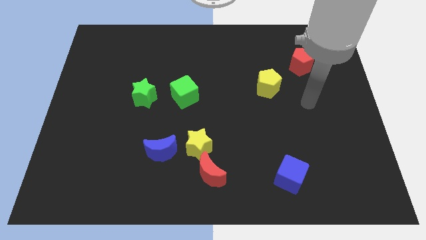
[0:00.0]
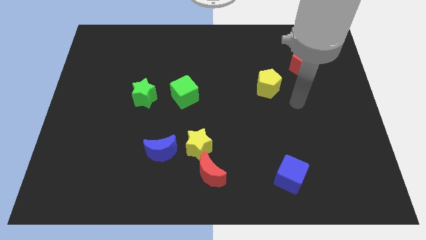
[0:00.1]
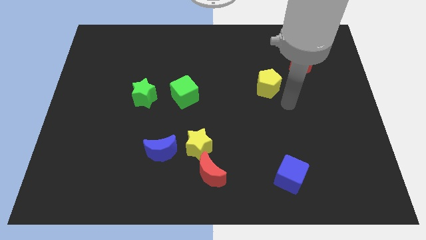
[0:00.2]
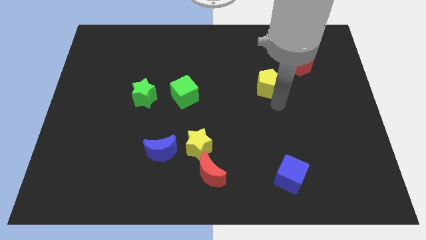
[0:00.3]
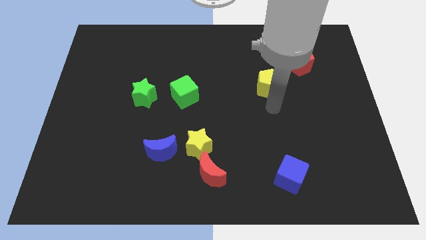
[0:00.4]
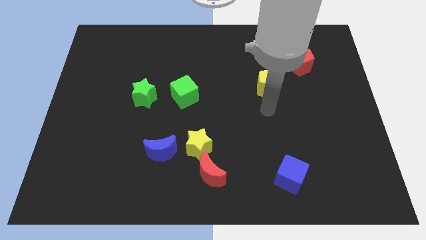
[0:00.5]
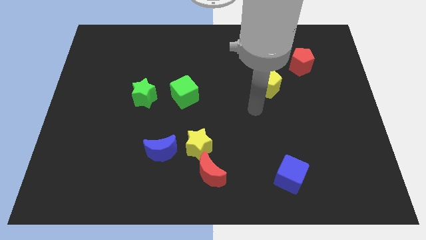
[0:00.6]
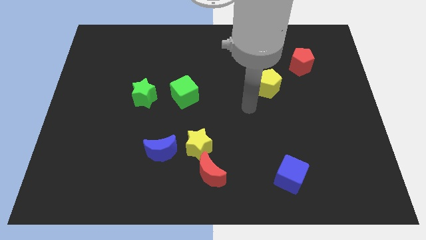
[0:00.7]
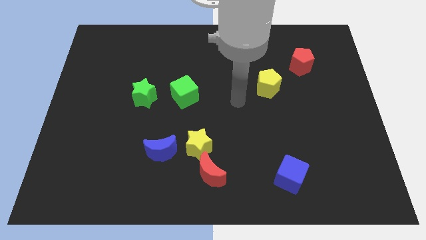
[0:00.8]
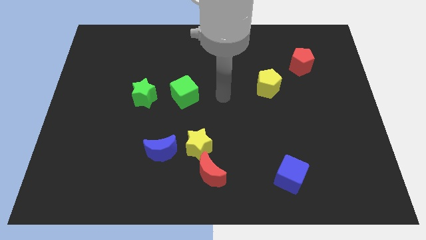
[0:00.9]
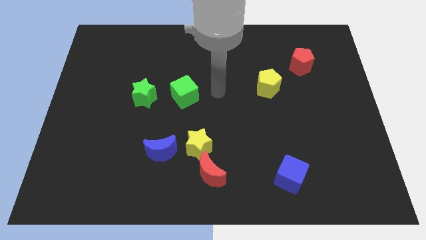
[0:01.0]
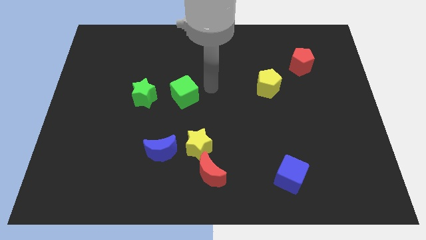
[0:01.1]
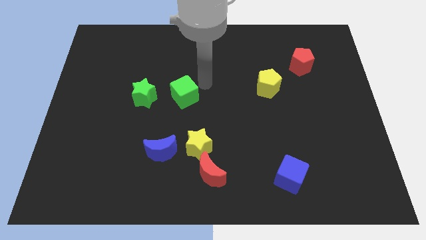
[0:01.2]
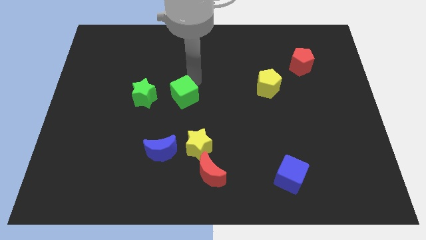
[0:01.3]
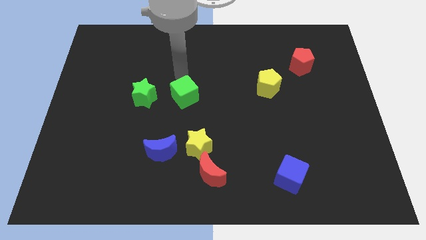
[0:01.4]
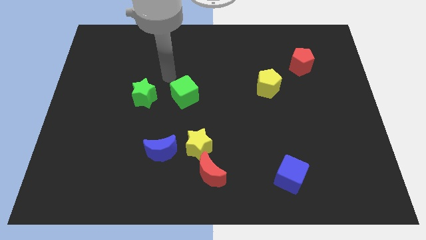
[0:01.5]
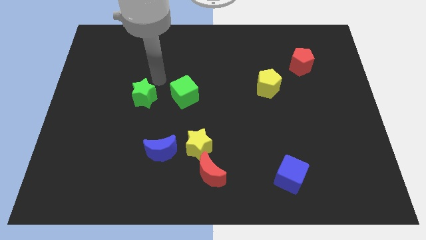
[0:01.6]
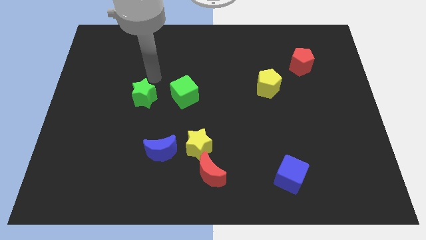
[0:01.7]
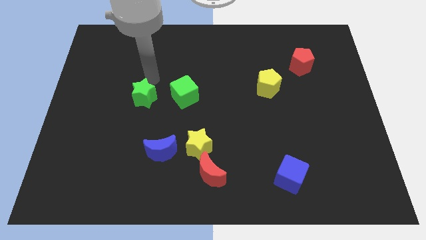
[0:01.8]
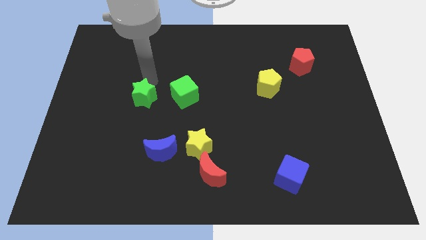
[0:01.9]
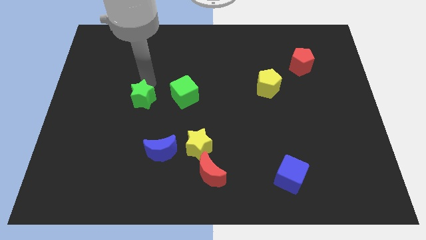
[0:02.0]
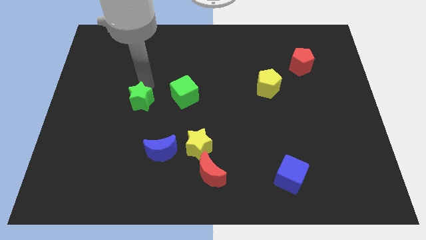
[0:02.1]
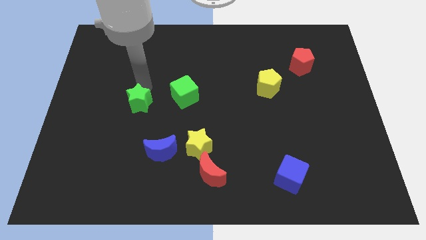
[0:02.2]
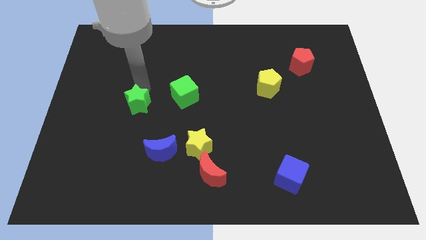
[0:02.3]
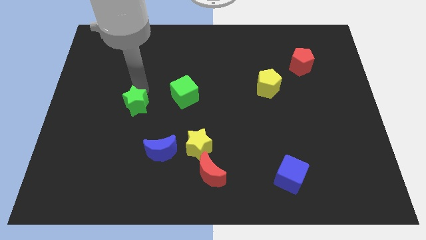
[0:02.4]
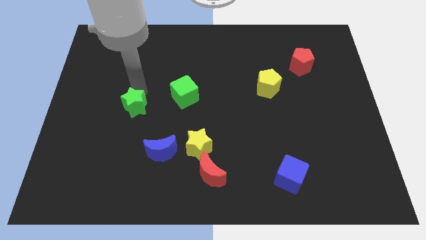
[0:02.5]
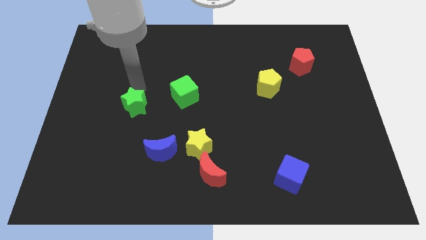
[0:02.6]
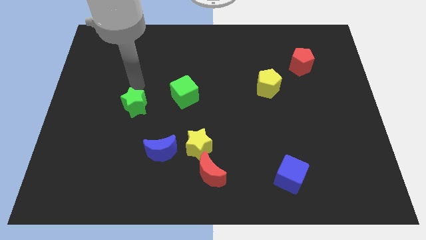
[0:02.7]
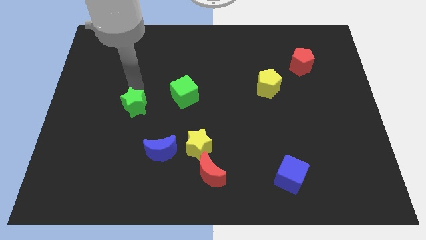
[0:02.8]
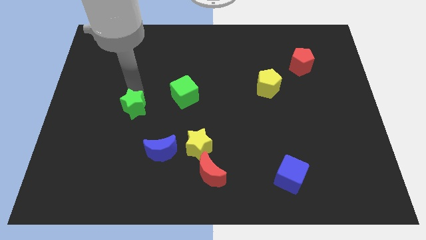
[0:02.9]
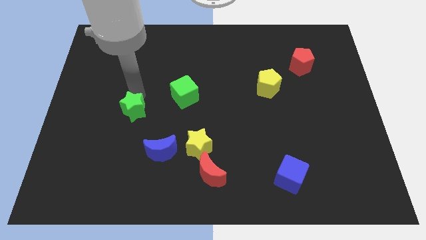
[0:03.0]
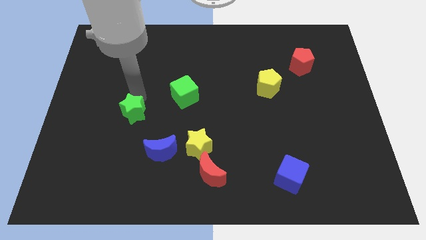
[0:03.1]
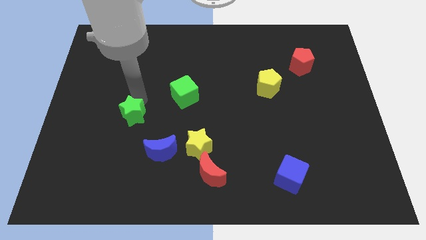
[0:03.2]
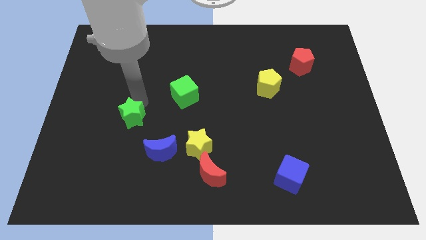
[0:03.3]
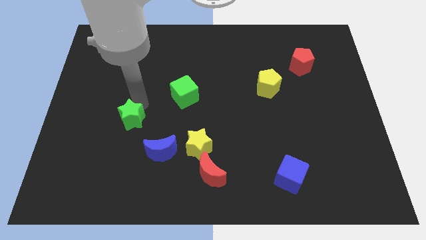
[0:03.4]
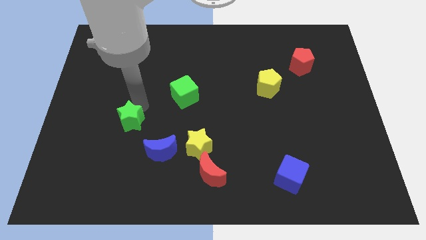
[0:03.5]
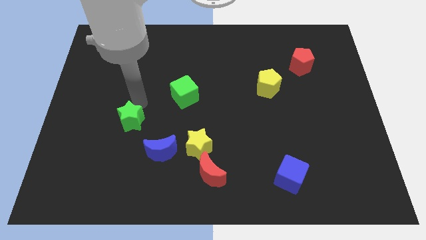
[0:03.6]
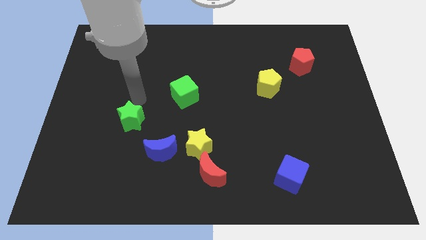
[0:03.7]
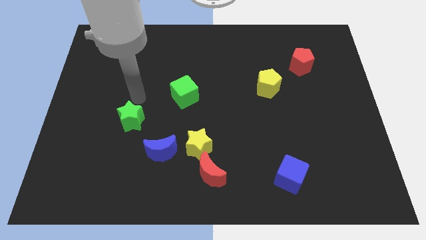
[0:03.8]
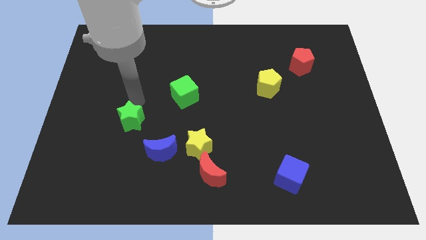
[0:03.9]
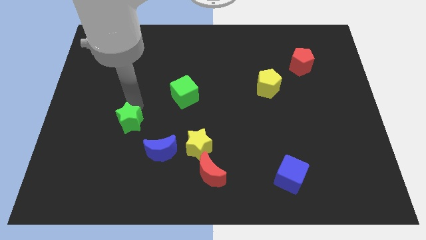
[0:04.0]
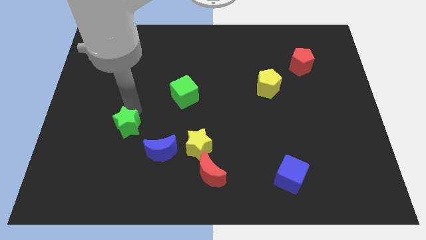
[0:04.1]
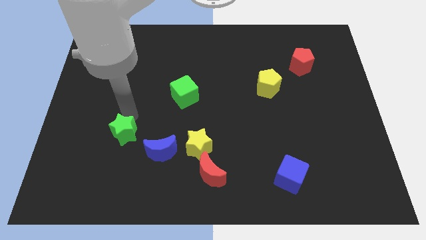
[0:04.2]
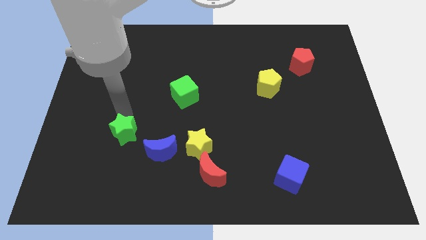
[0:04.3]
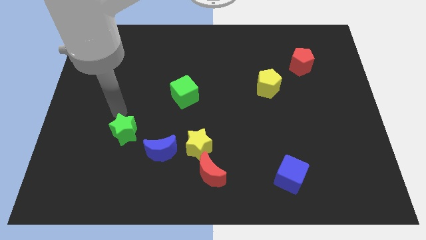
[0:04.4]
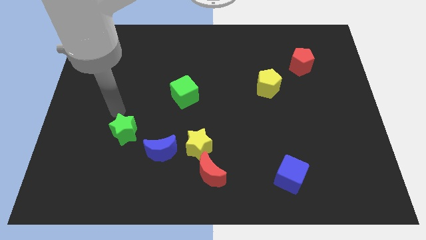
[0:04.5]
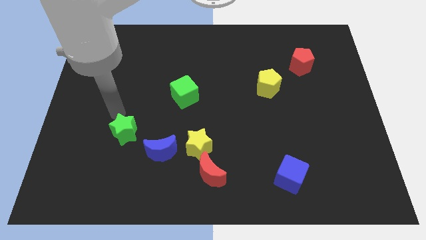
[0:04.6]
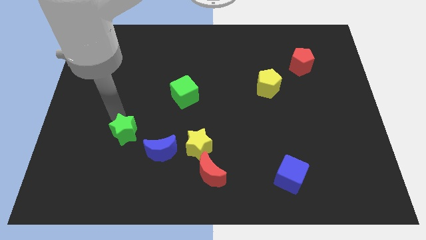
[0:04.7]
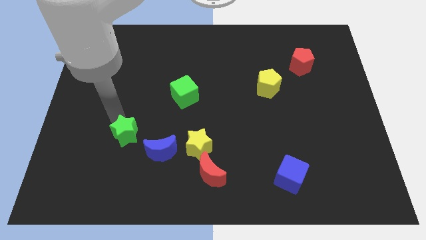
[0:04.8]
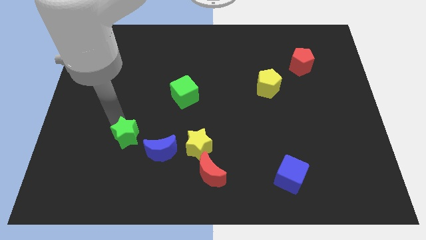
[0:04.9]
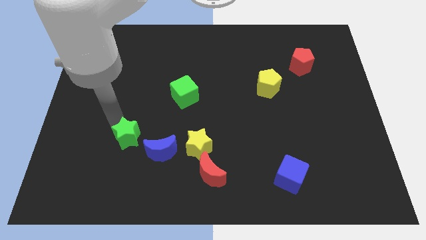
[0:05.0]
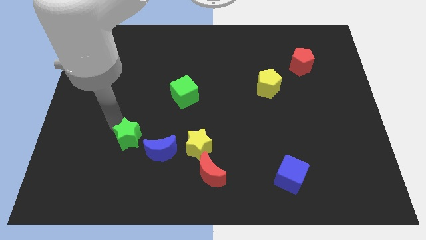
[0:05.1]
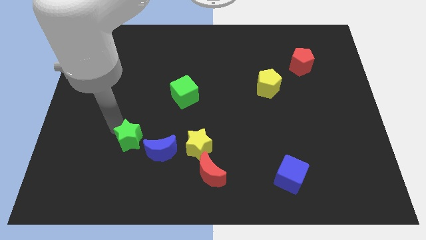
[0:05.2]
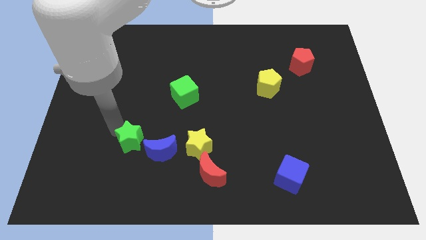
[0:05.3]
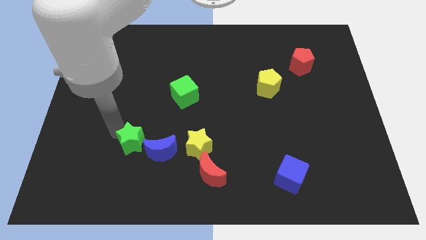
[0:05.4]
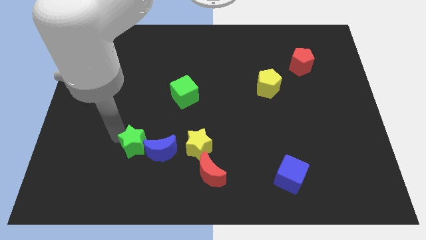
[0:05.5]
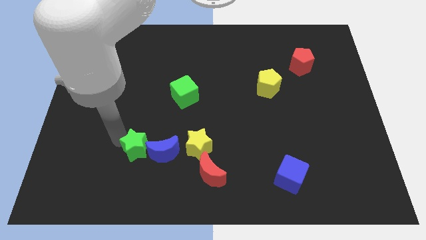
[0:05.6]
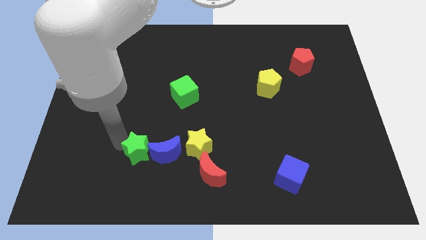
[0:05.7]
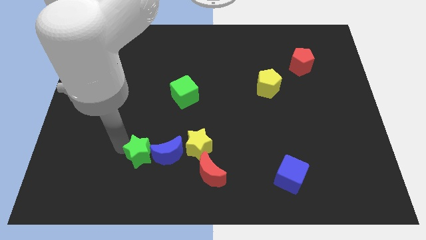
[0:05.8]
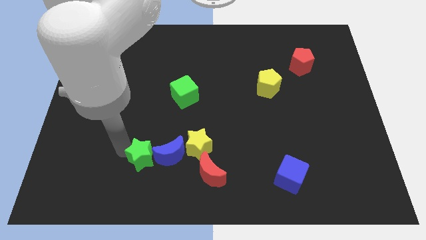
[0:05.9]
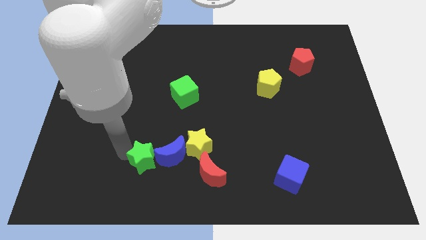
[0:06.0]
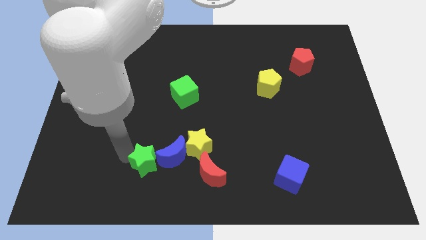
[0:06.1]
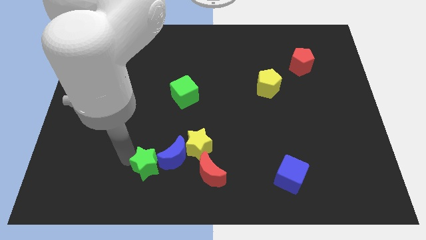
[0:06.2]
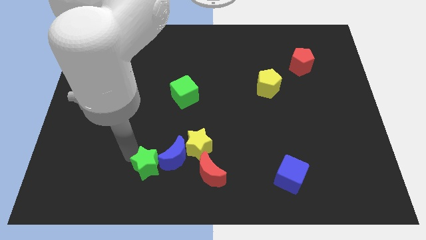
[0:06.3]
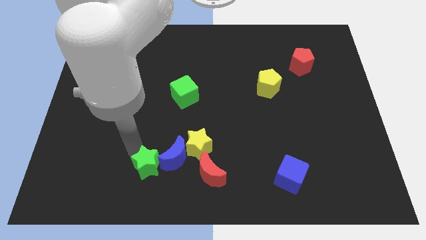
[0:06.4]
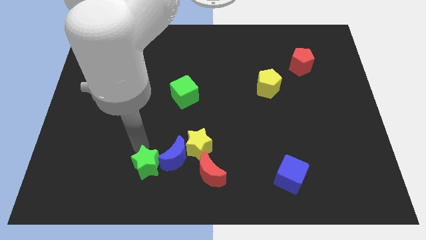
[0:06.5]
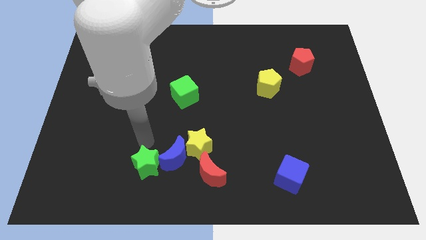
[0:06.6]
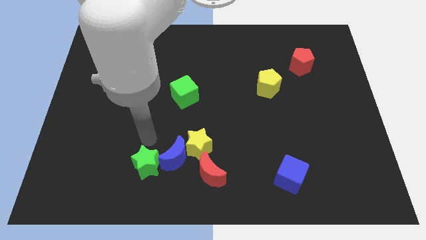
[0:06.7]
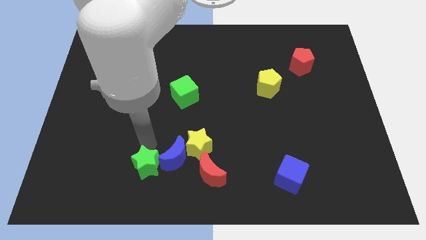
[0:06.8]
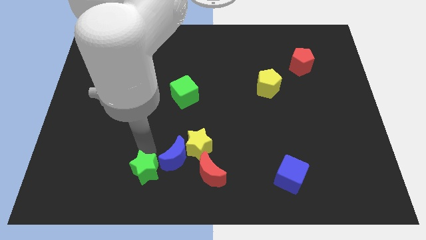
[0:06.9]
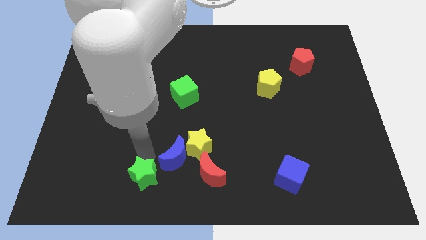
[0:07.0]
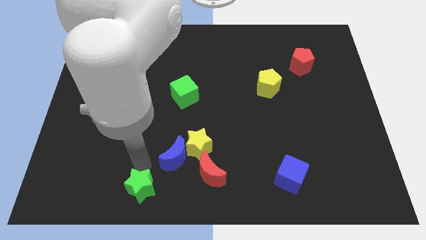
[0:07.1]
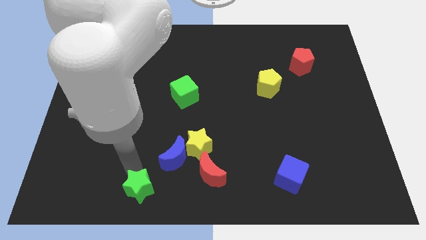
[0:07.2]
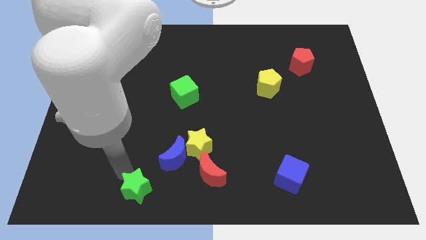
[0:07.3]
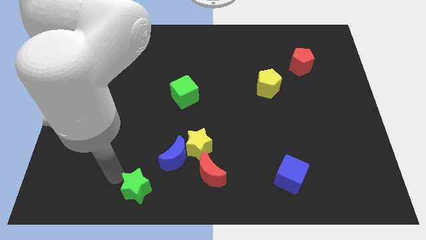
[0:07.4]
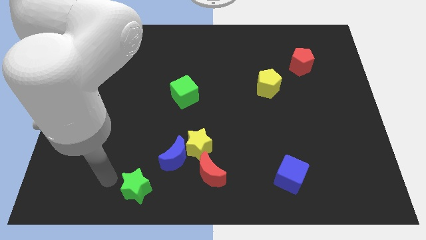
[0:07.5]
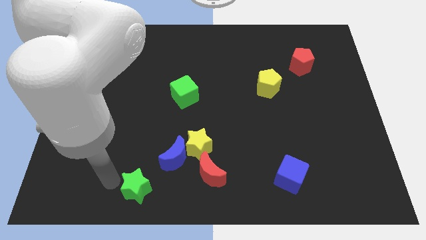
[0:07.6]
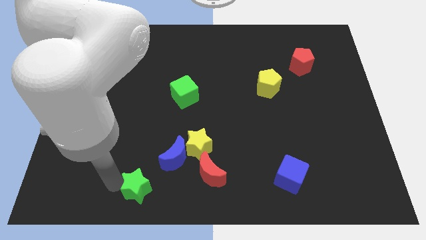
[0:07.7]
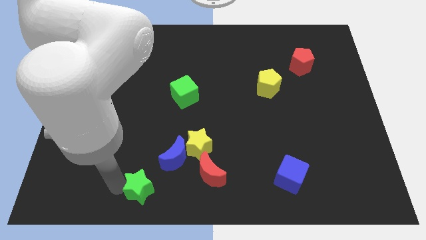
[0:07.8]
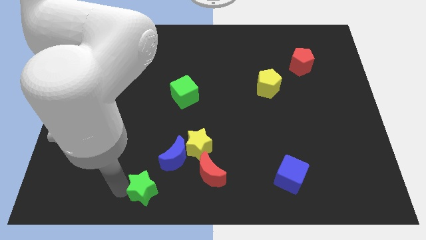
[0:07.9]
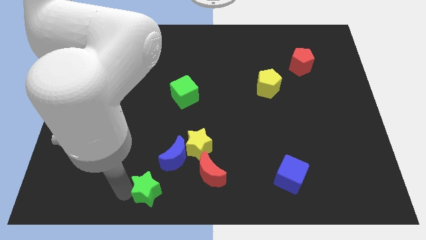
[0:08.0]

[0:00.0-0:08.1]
put the green star to the bottom side
